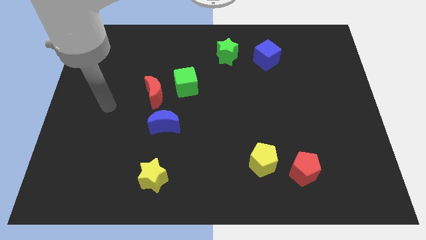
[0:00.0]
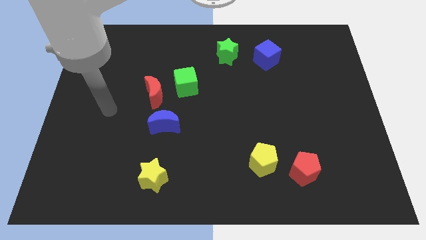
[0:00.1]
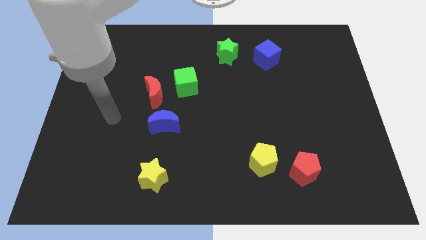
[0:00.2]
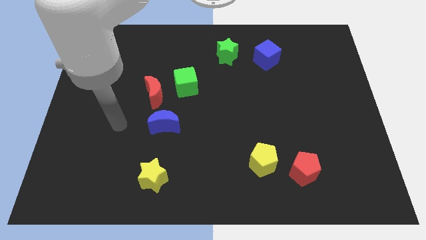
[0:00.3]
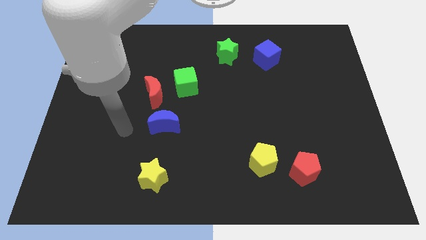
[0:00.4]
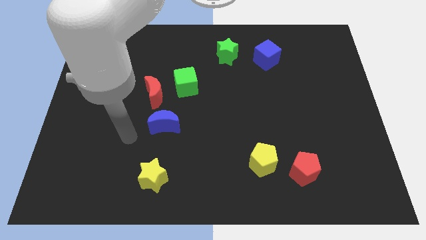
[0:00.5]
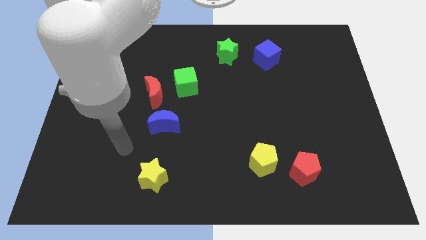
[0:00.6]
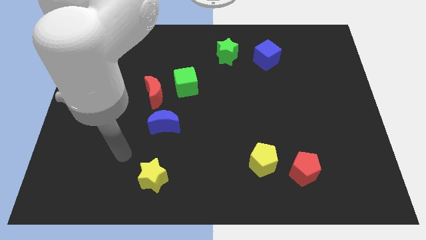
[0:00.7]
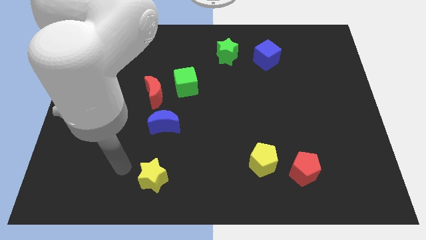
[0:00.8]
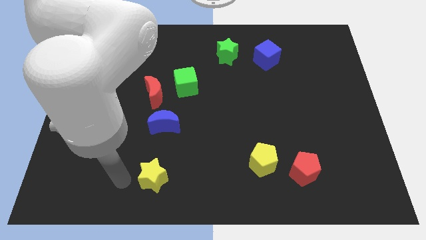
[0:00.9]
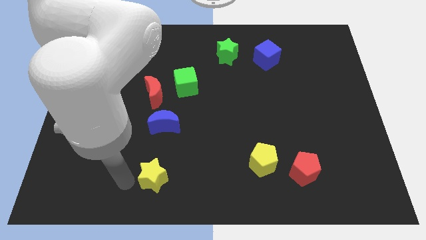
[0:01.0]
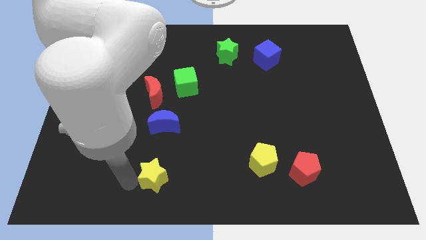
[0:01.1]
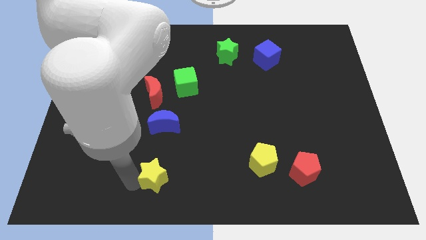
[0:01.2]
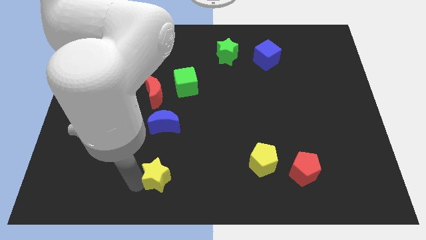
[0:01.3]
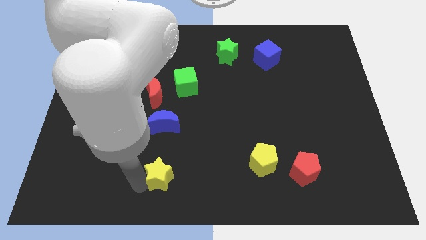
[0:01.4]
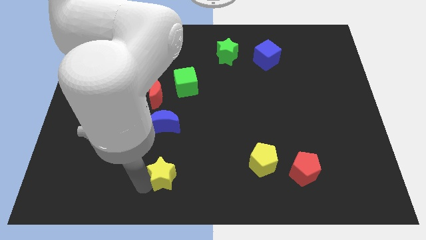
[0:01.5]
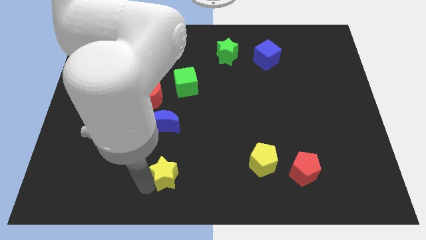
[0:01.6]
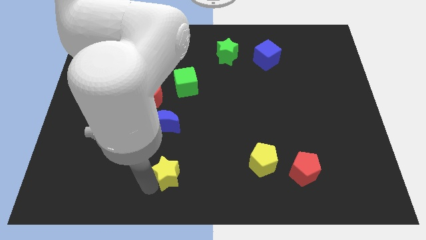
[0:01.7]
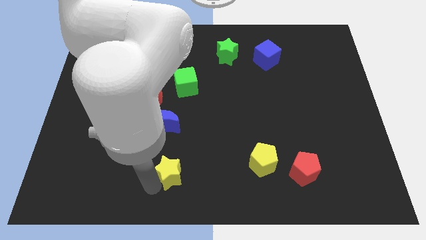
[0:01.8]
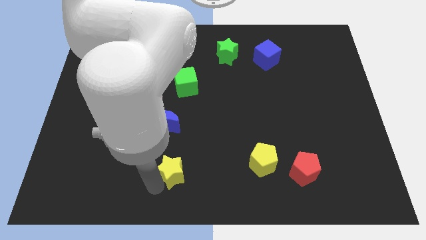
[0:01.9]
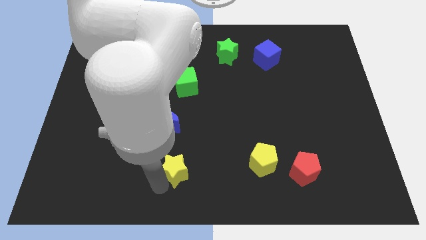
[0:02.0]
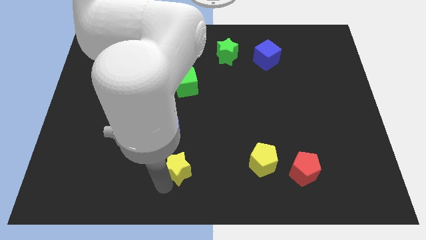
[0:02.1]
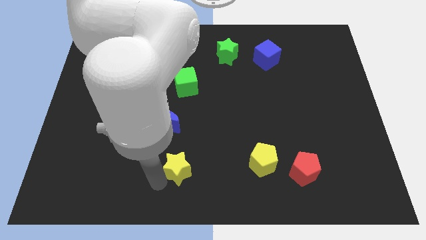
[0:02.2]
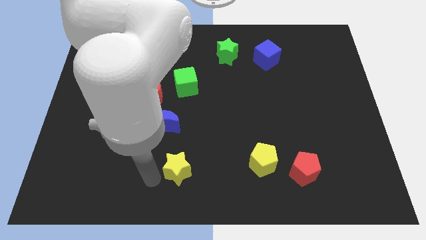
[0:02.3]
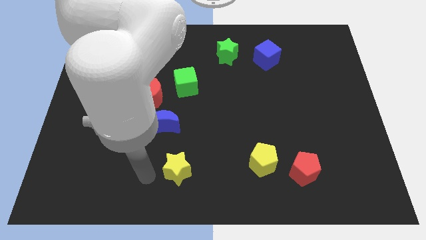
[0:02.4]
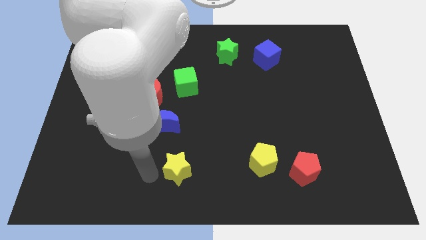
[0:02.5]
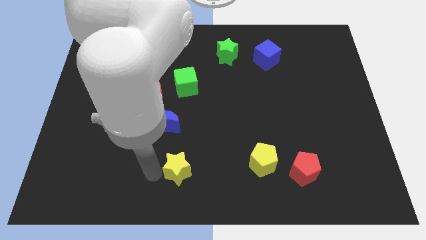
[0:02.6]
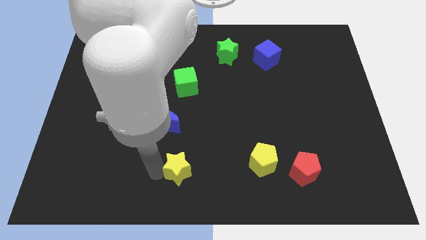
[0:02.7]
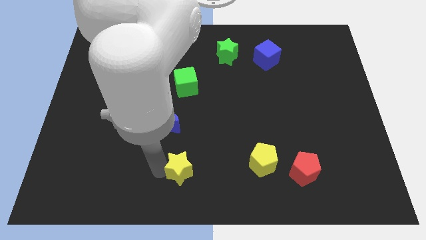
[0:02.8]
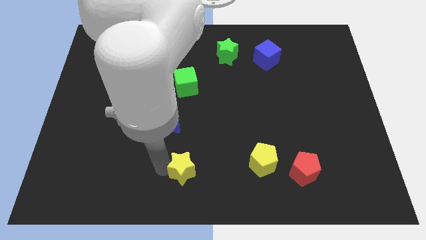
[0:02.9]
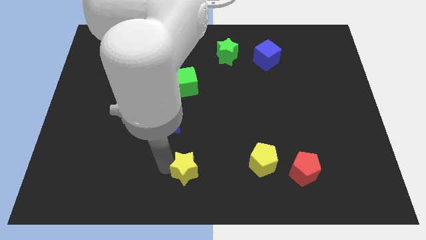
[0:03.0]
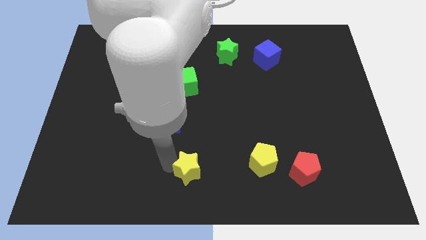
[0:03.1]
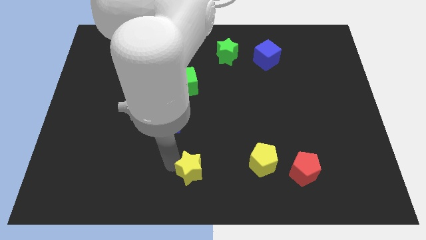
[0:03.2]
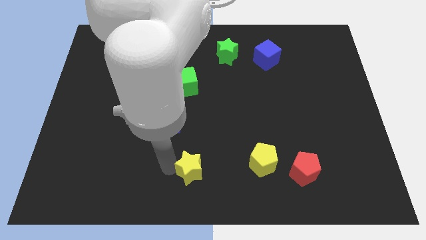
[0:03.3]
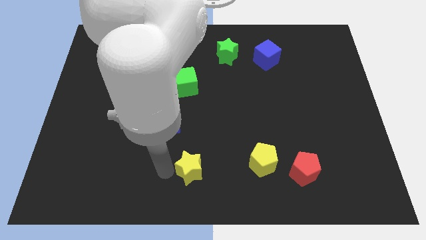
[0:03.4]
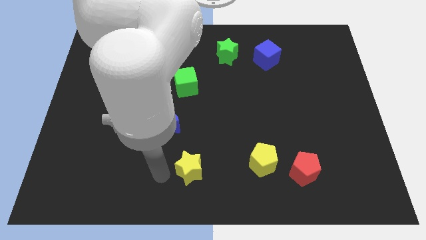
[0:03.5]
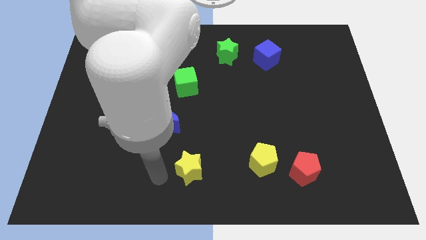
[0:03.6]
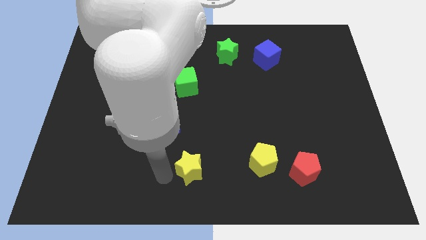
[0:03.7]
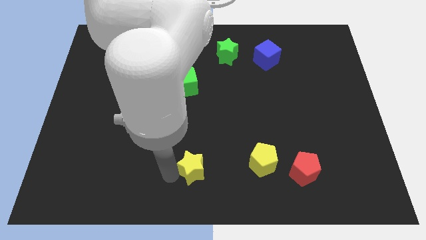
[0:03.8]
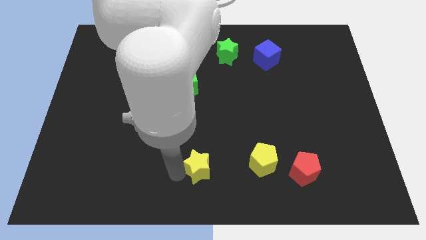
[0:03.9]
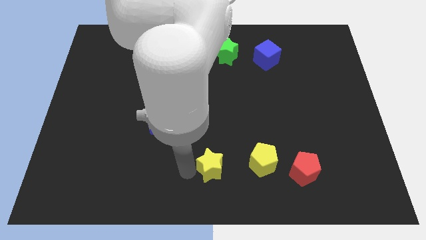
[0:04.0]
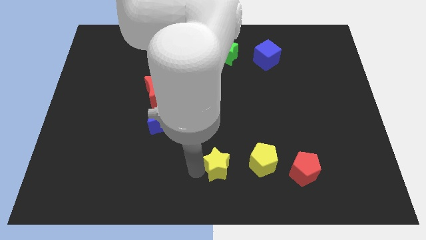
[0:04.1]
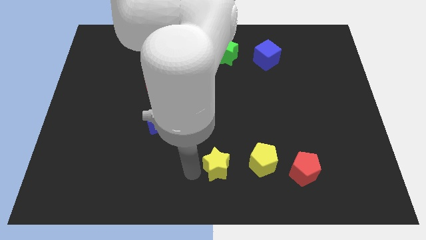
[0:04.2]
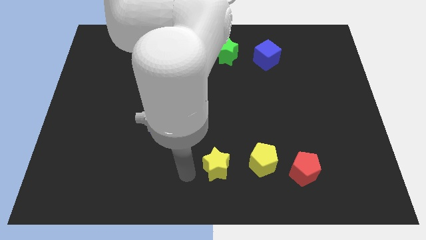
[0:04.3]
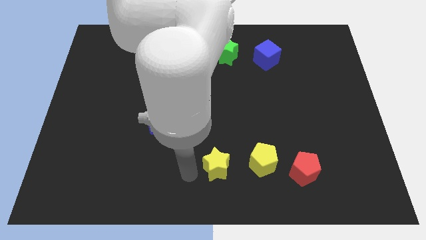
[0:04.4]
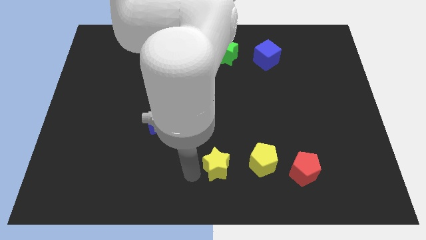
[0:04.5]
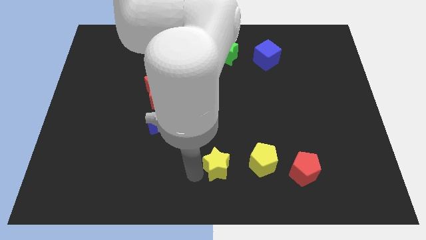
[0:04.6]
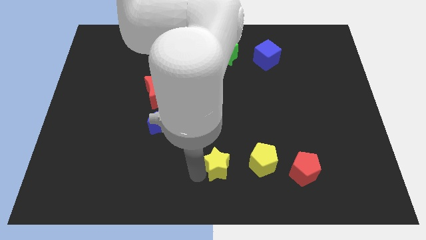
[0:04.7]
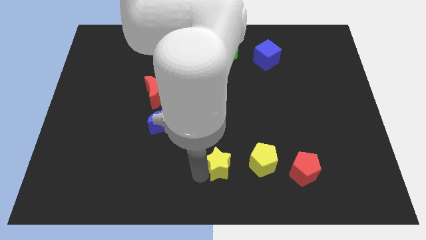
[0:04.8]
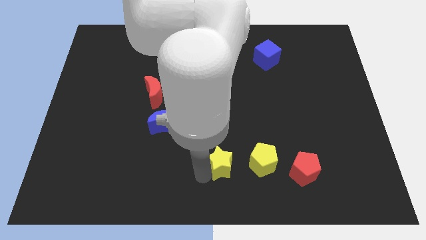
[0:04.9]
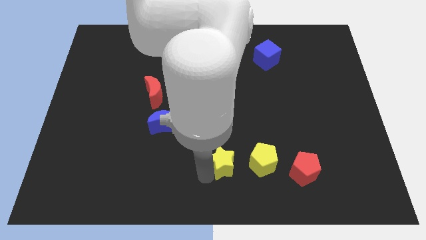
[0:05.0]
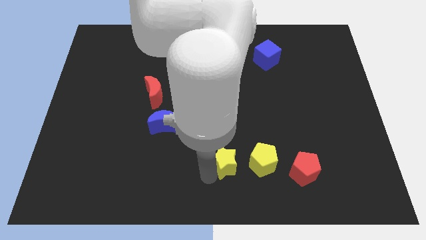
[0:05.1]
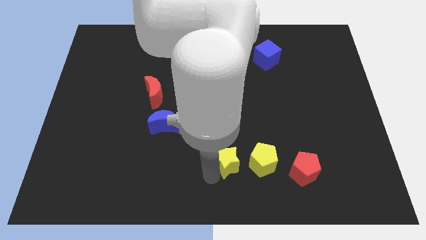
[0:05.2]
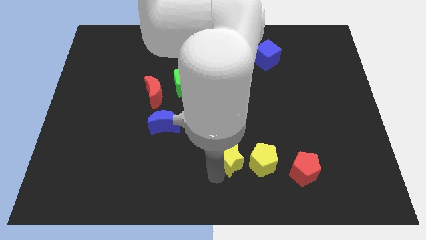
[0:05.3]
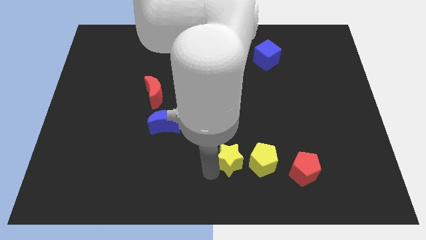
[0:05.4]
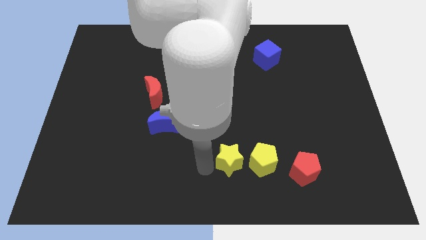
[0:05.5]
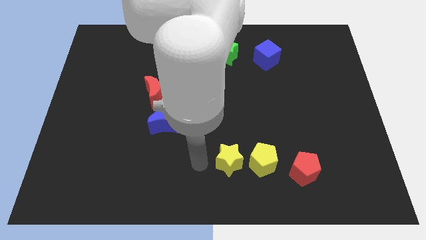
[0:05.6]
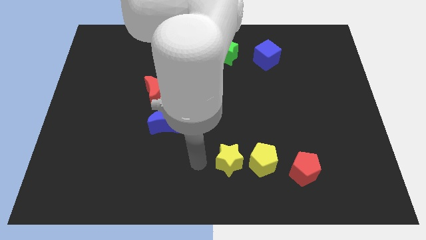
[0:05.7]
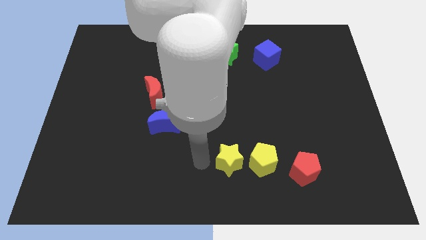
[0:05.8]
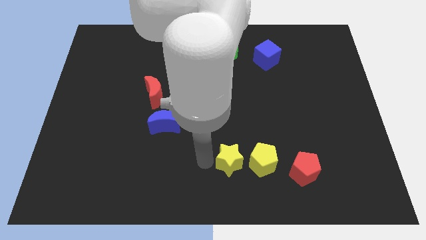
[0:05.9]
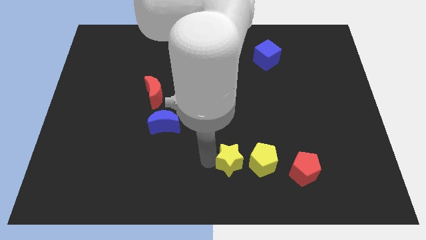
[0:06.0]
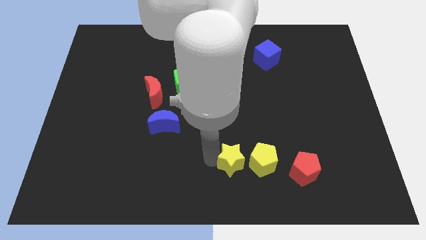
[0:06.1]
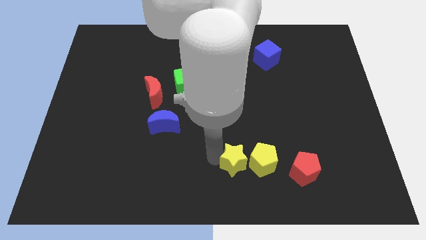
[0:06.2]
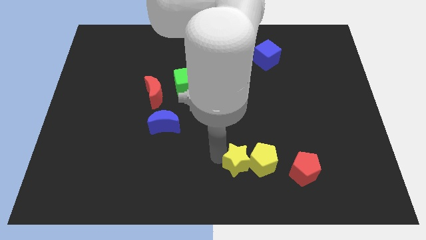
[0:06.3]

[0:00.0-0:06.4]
move the yellow star towards the yellow pentagon

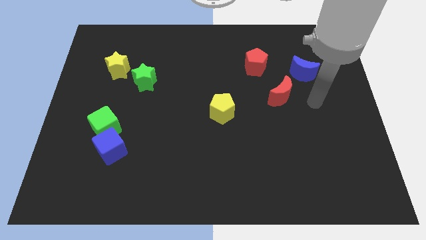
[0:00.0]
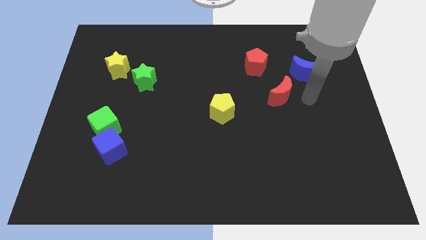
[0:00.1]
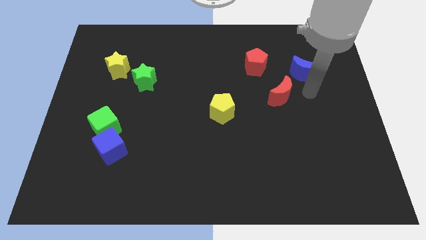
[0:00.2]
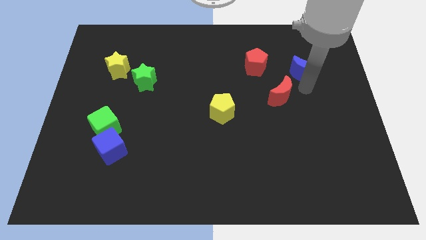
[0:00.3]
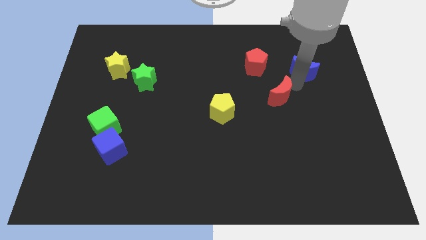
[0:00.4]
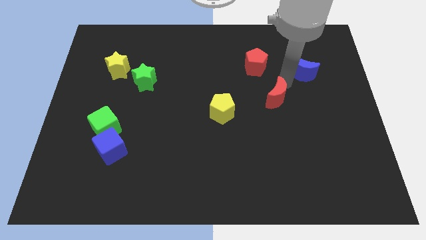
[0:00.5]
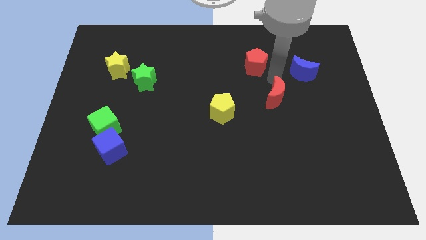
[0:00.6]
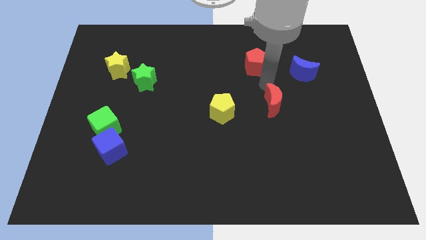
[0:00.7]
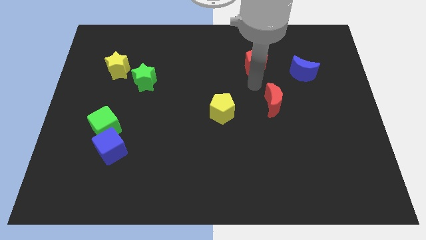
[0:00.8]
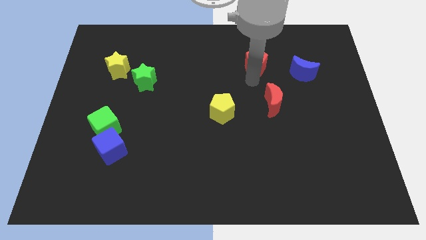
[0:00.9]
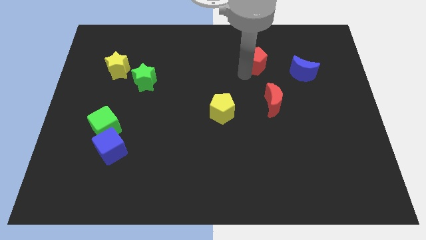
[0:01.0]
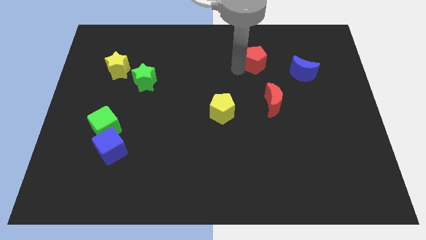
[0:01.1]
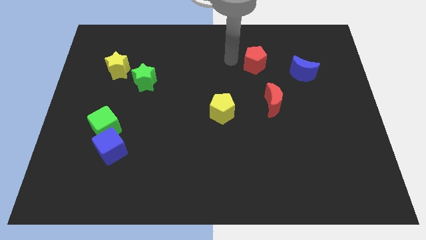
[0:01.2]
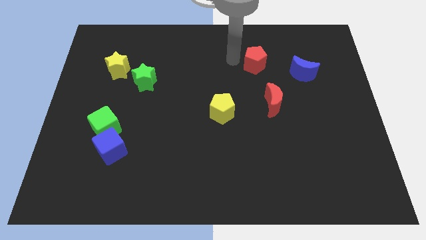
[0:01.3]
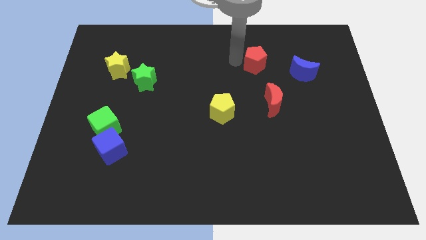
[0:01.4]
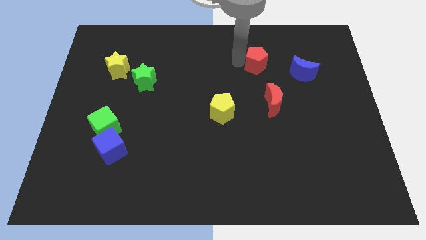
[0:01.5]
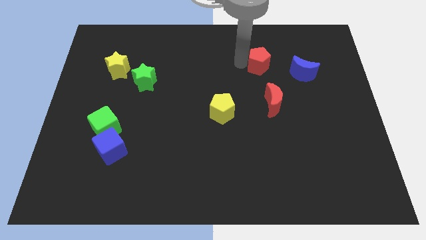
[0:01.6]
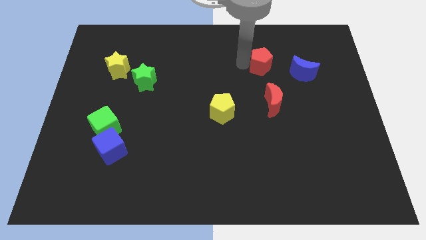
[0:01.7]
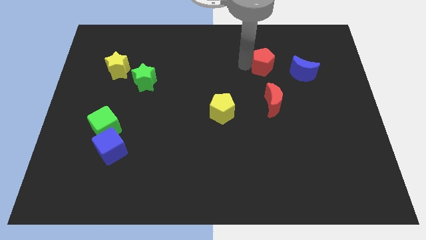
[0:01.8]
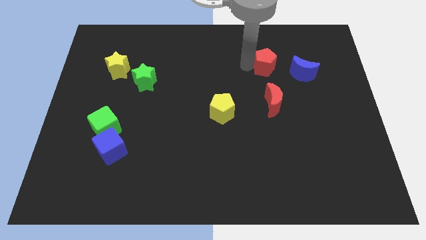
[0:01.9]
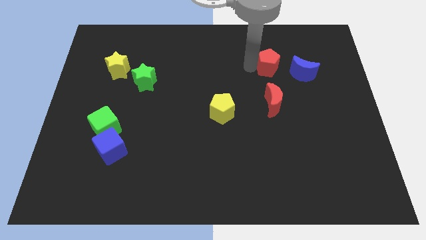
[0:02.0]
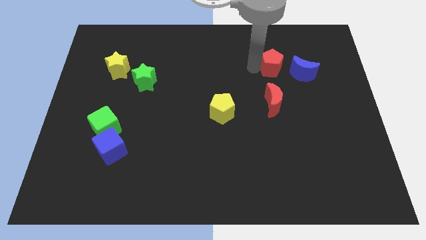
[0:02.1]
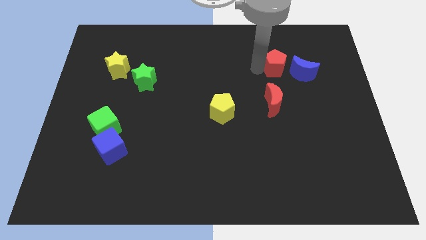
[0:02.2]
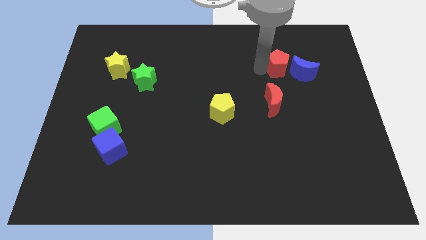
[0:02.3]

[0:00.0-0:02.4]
slide the red pentagon towards the blue moon
